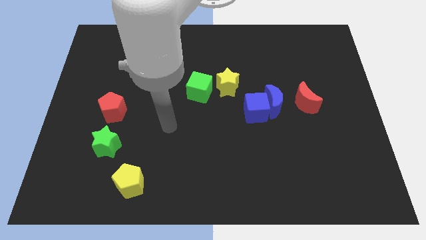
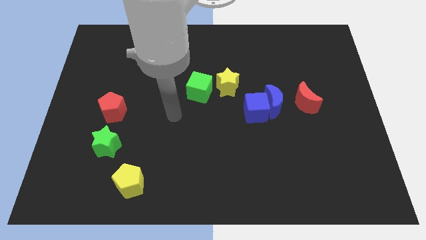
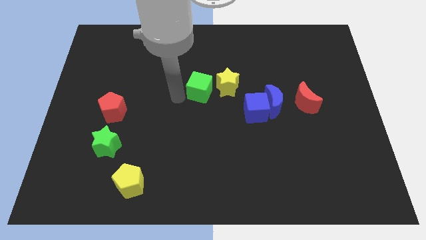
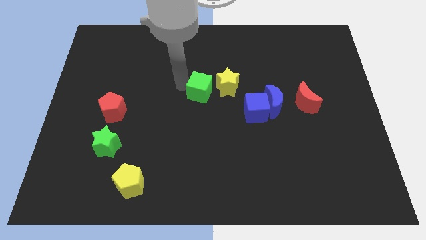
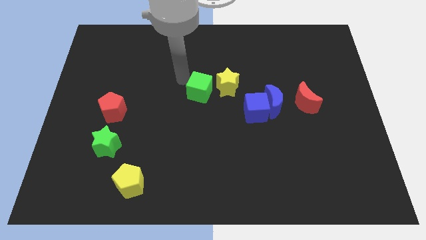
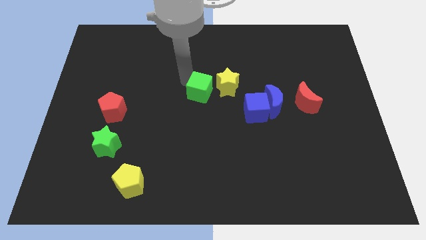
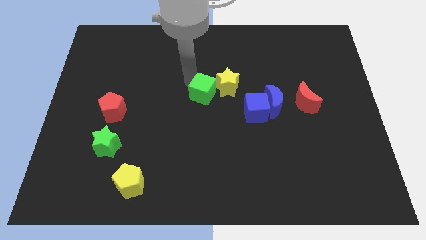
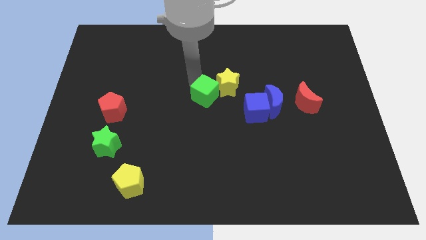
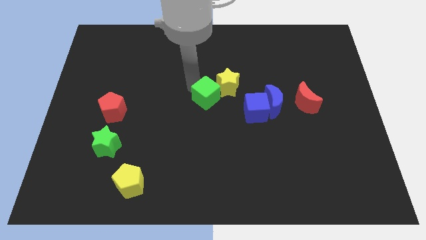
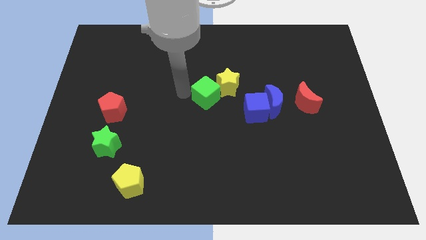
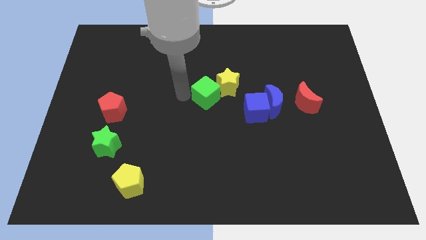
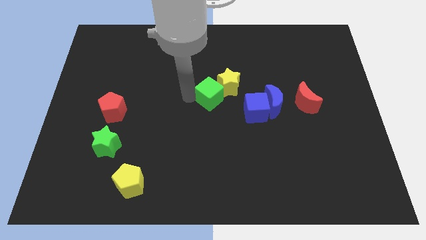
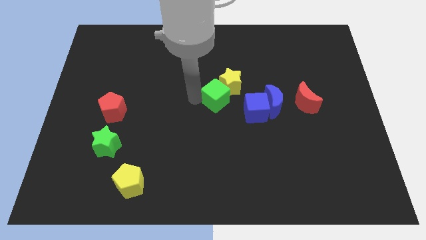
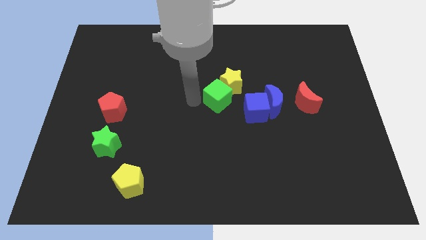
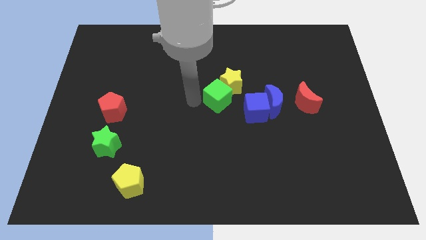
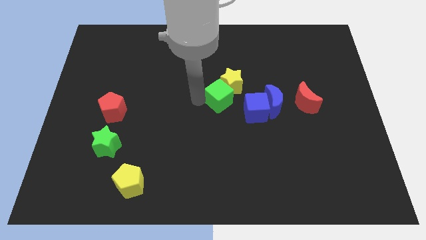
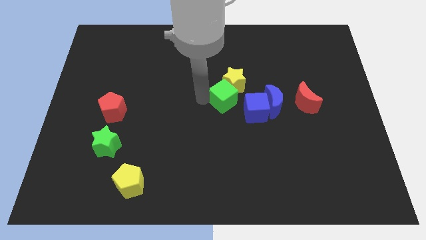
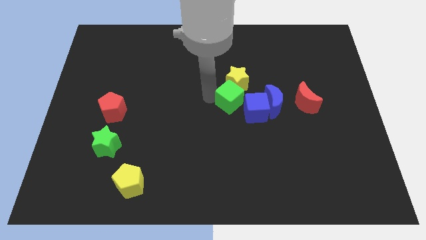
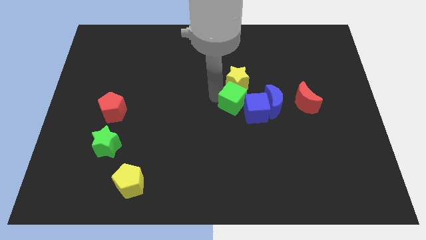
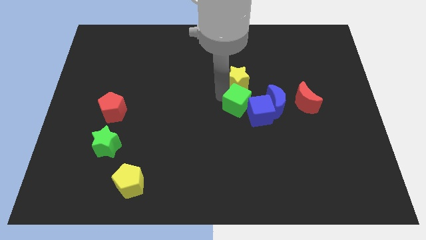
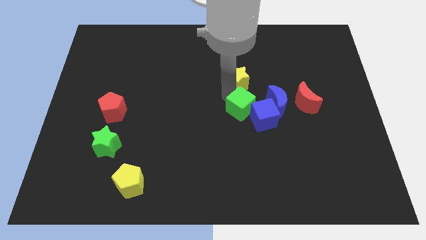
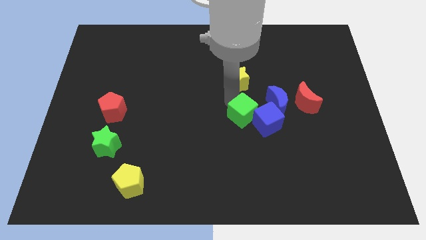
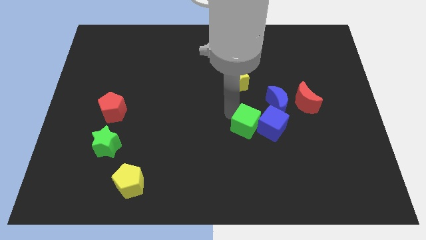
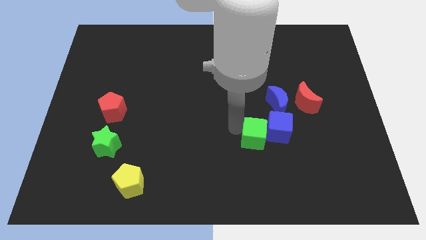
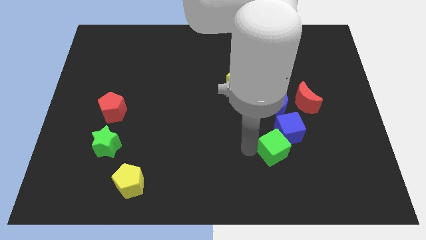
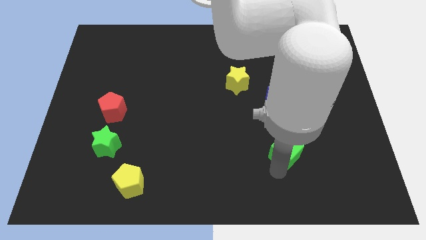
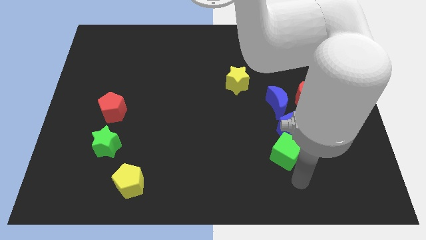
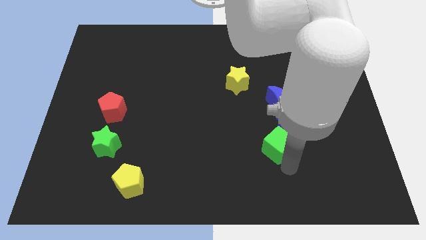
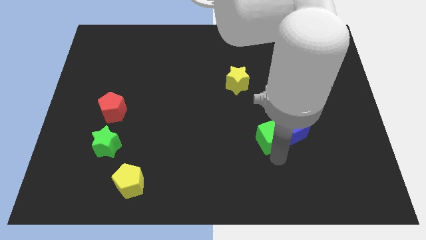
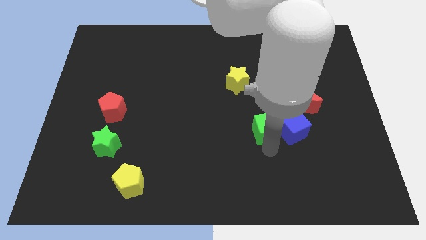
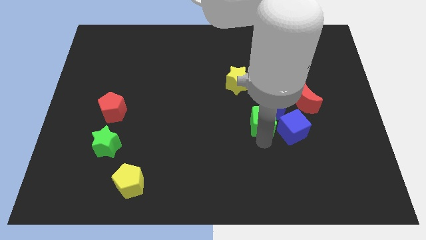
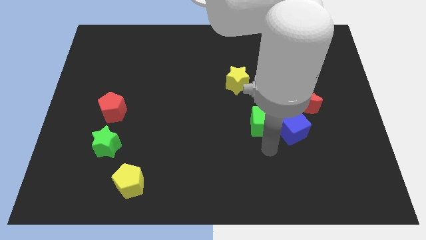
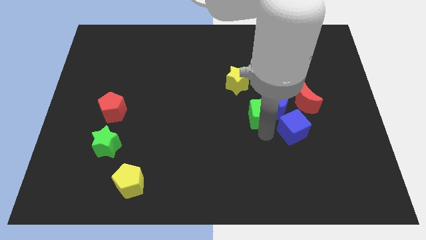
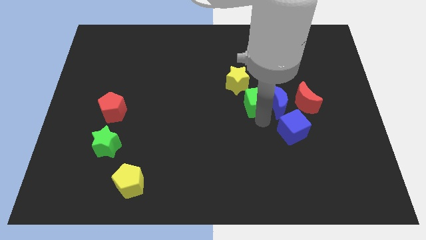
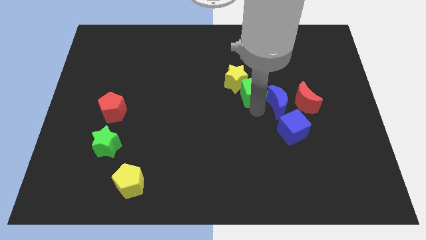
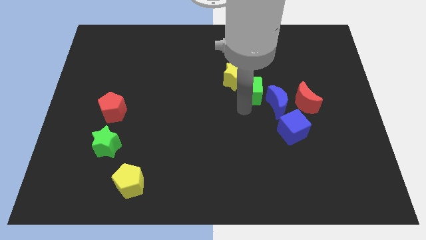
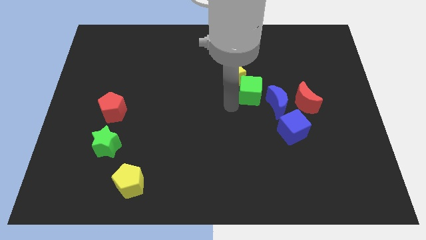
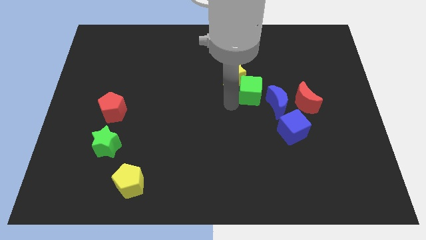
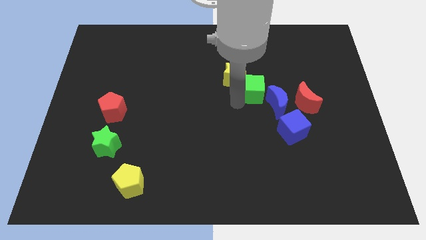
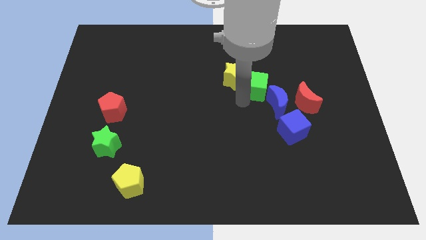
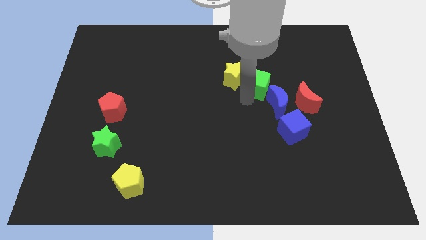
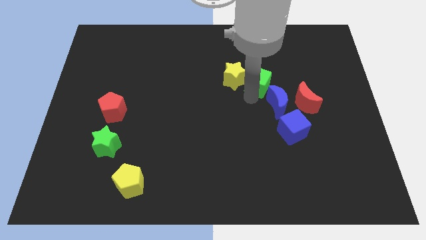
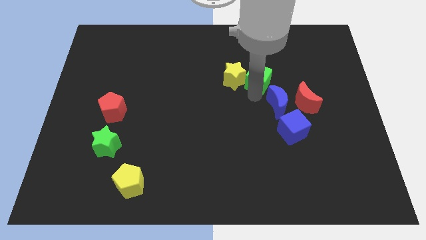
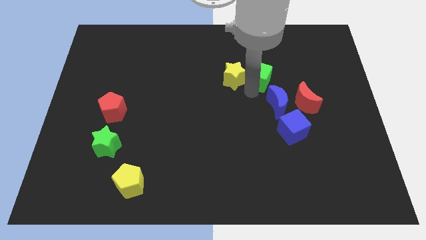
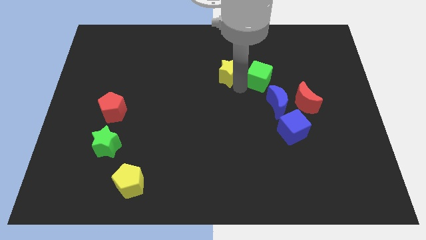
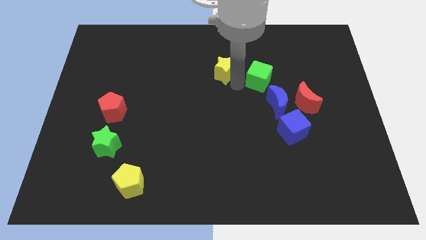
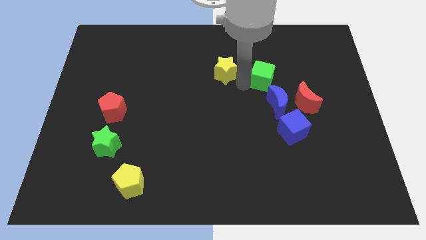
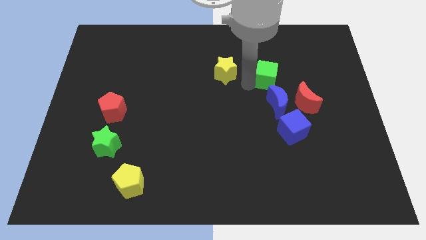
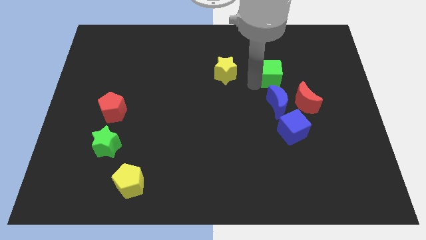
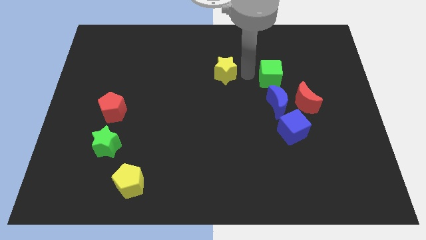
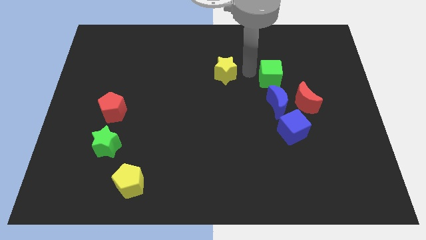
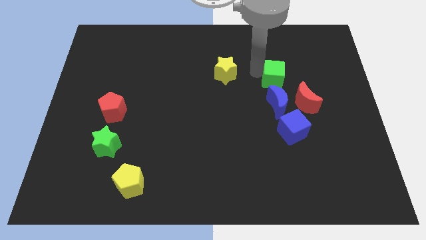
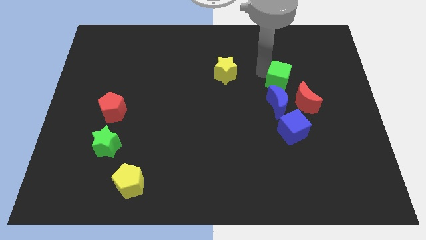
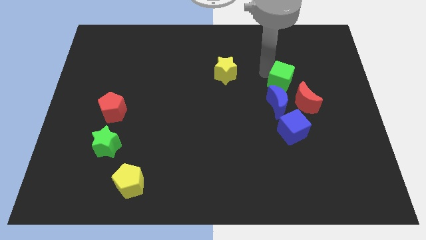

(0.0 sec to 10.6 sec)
slide the green cube to the right

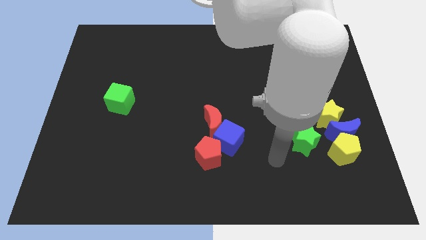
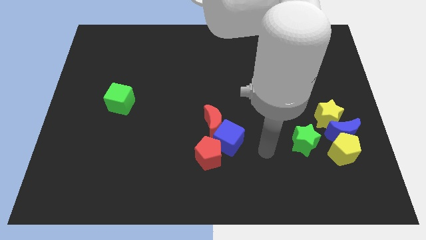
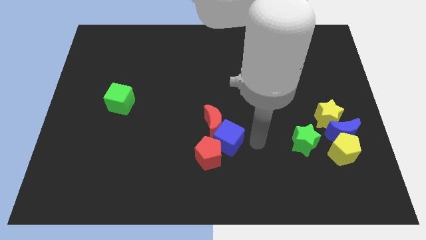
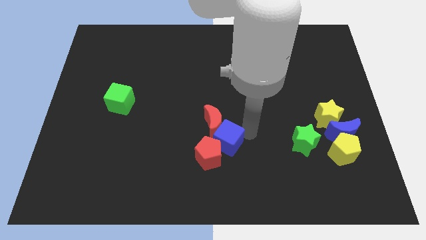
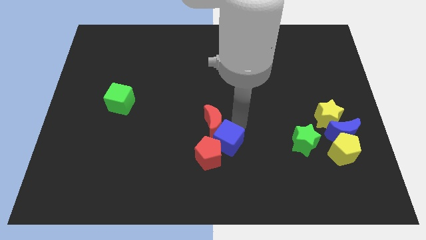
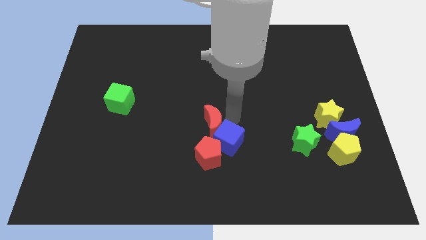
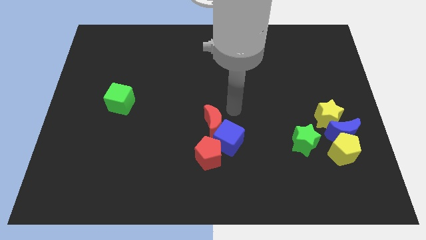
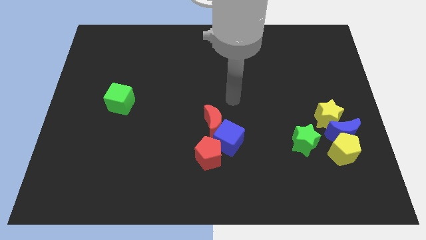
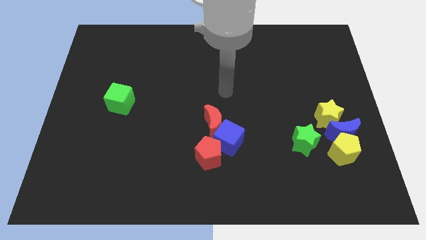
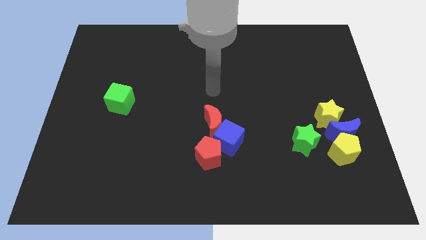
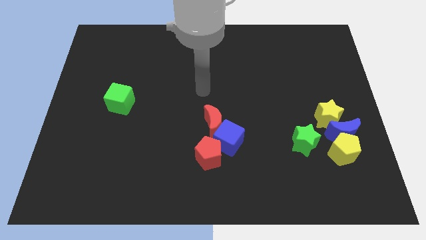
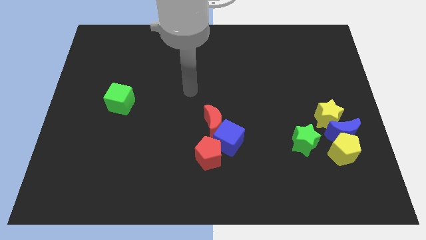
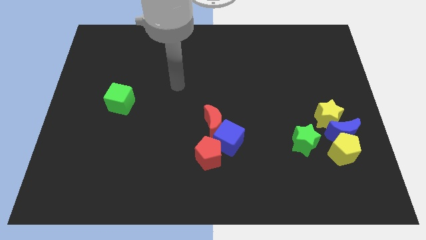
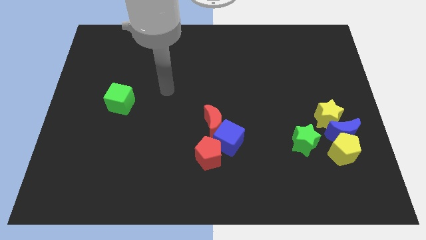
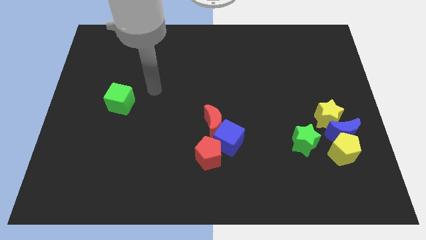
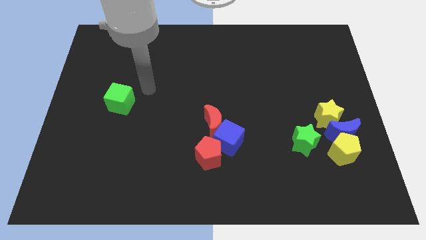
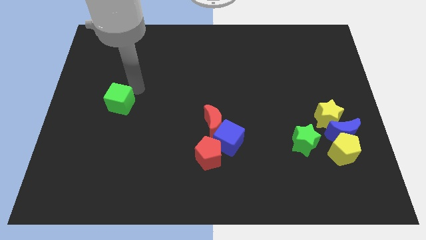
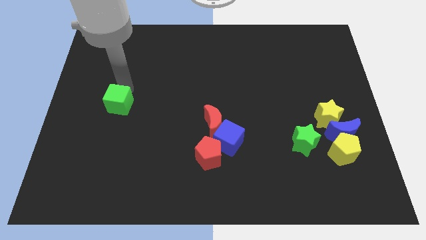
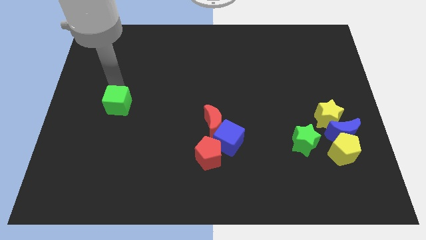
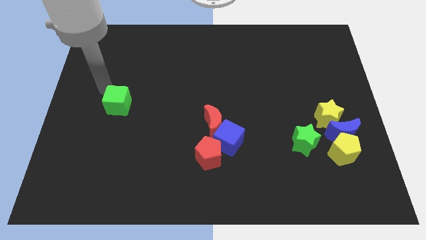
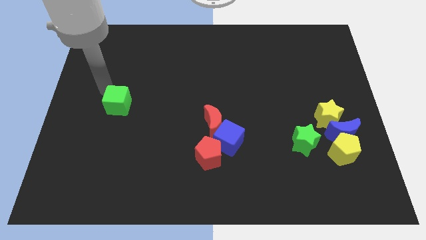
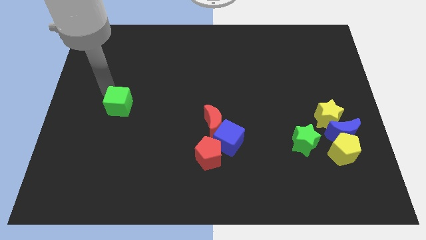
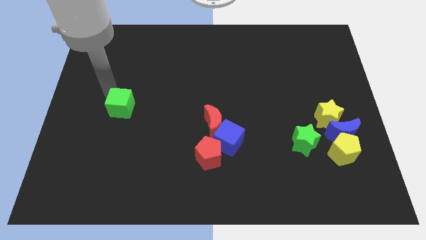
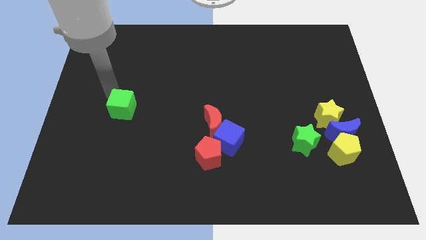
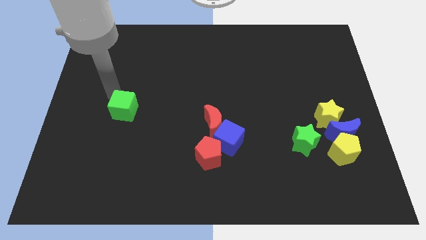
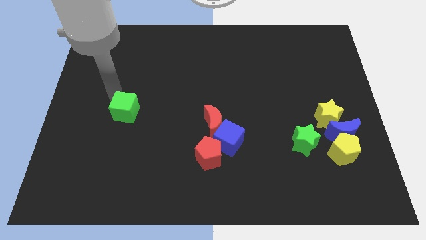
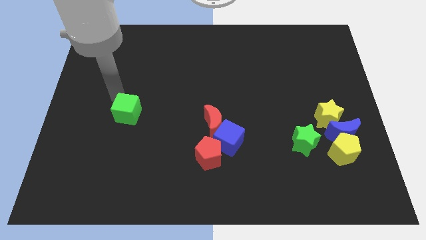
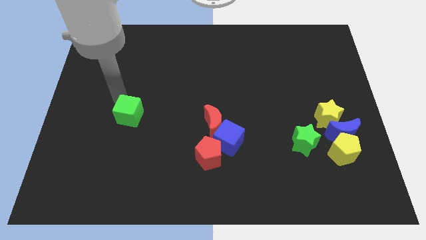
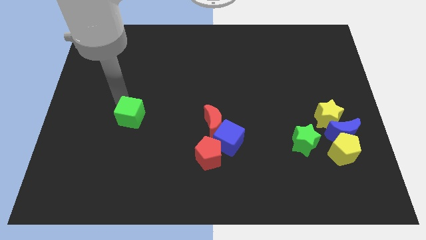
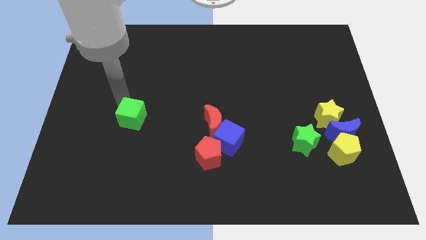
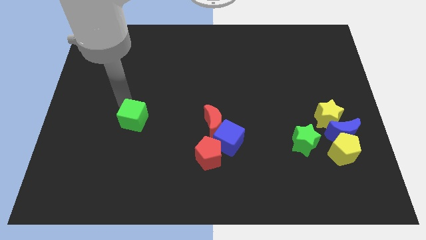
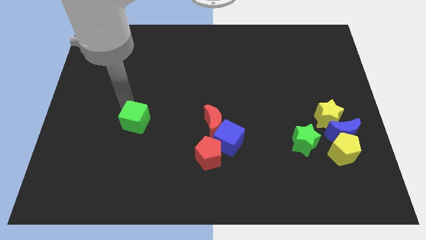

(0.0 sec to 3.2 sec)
move the green cube diagonally downwards and right slightly
